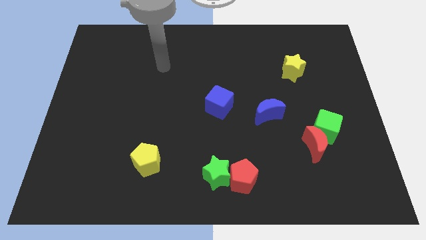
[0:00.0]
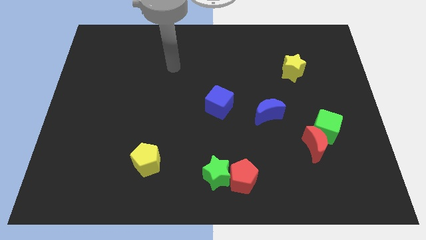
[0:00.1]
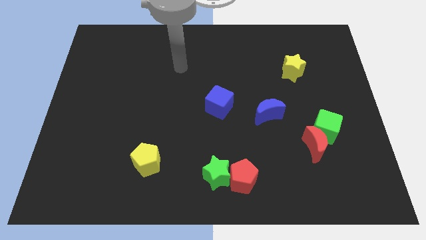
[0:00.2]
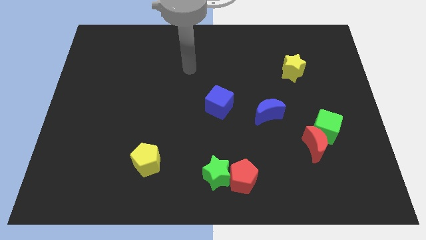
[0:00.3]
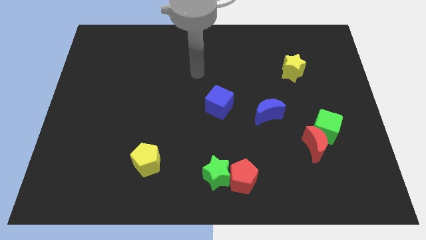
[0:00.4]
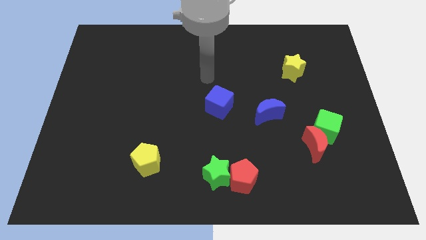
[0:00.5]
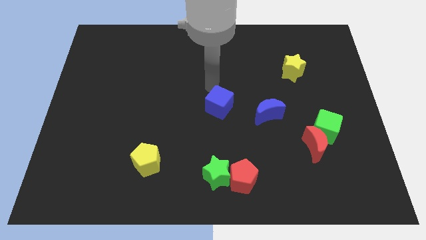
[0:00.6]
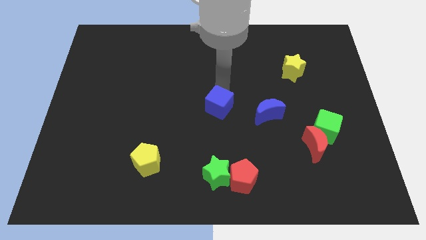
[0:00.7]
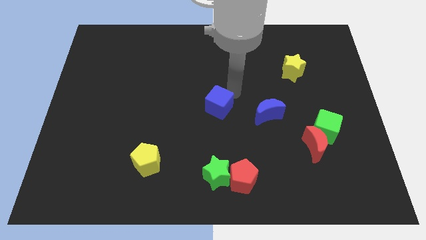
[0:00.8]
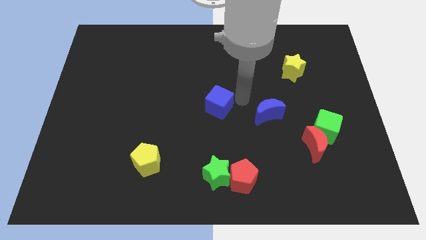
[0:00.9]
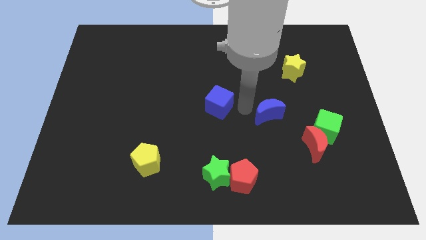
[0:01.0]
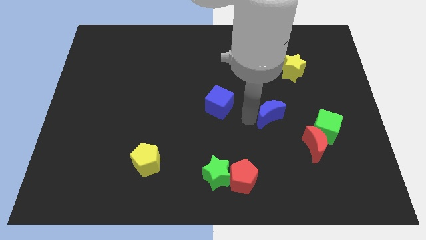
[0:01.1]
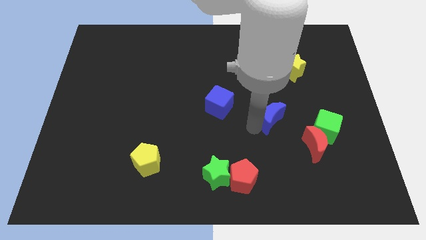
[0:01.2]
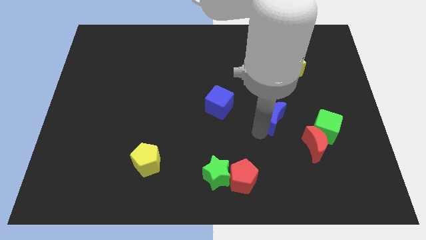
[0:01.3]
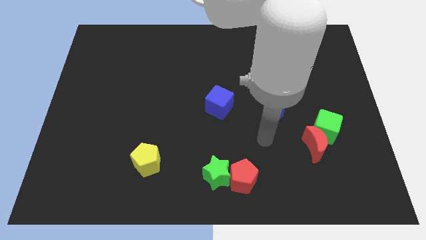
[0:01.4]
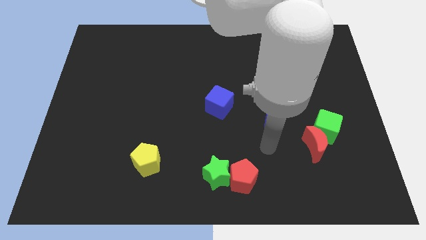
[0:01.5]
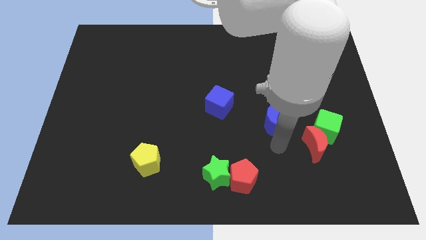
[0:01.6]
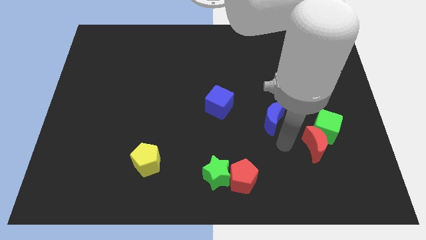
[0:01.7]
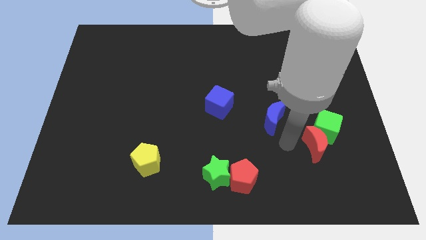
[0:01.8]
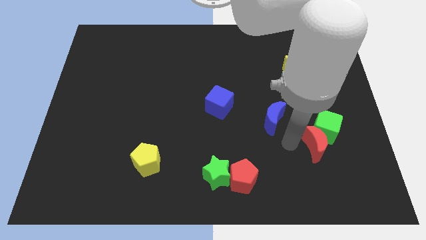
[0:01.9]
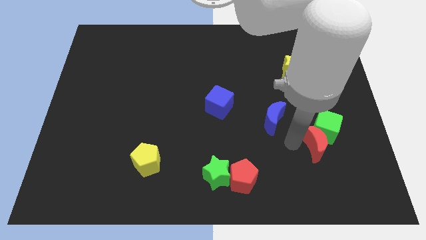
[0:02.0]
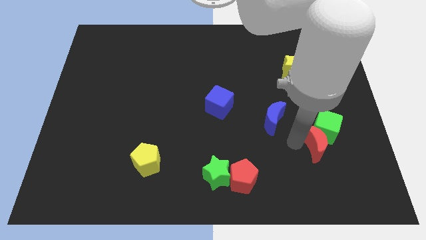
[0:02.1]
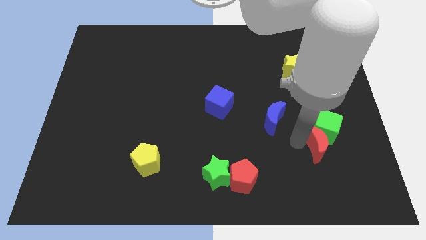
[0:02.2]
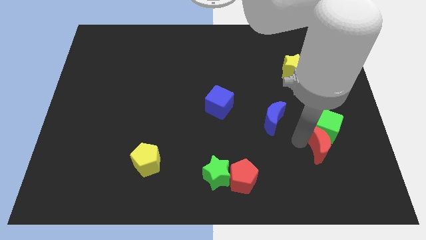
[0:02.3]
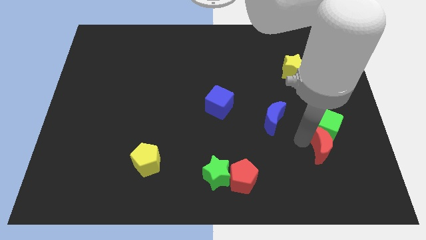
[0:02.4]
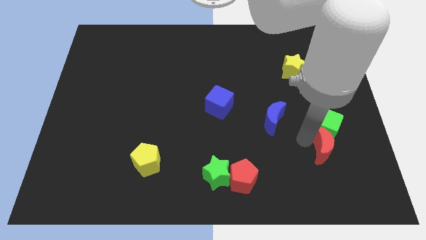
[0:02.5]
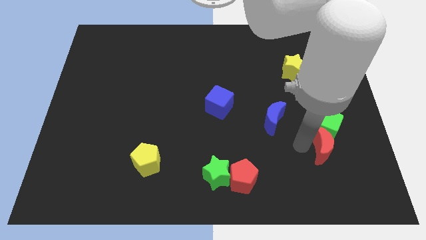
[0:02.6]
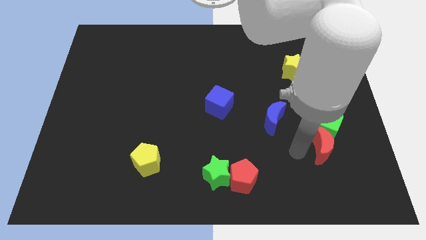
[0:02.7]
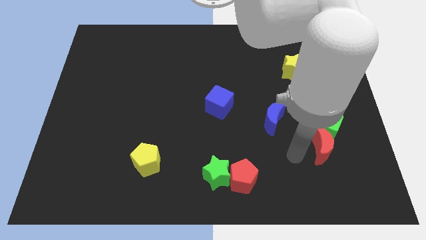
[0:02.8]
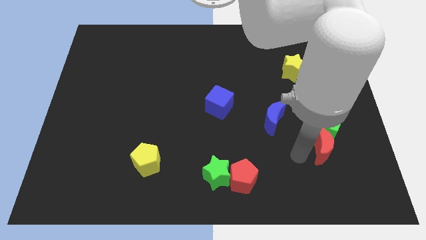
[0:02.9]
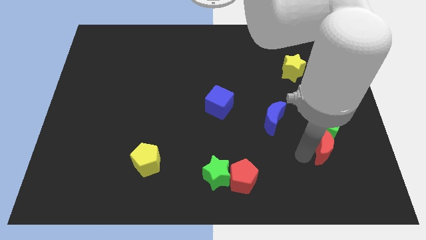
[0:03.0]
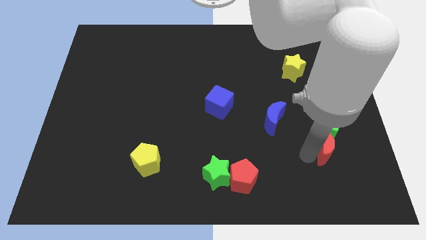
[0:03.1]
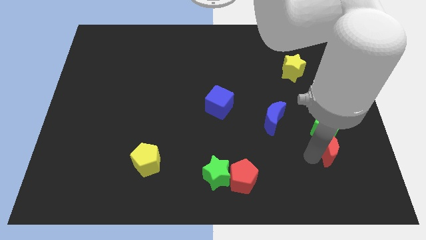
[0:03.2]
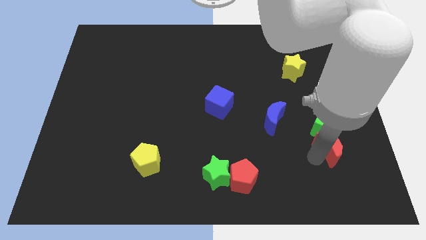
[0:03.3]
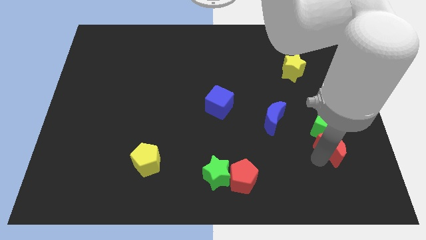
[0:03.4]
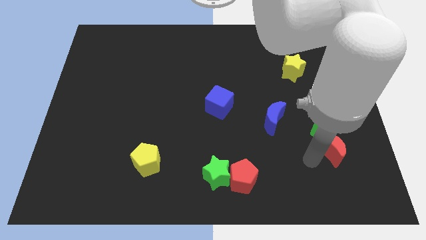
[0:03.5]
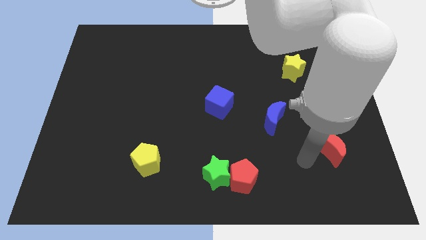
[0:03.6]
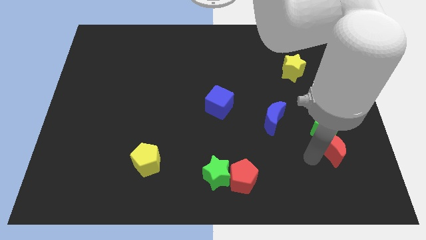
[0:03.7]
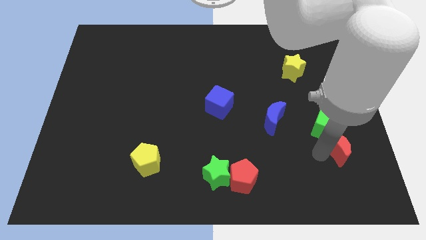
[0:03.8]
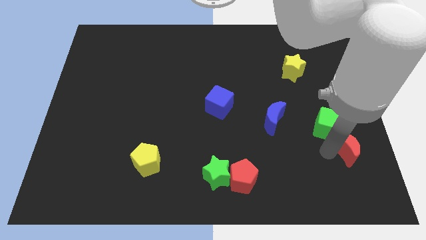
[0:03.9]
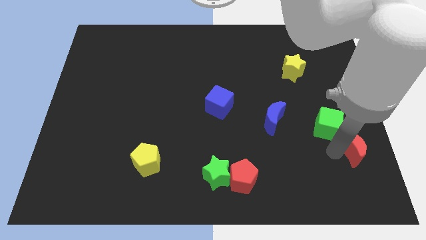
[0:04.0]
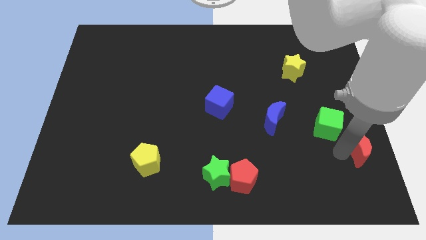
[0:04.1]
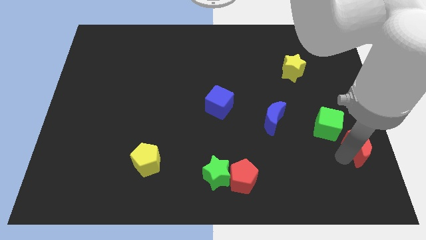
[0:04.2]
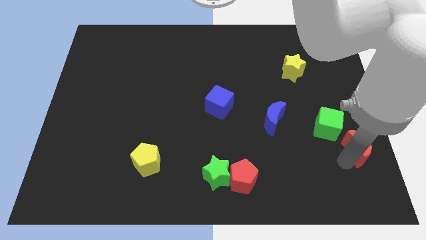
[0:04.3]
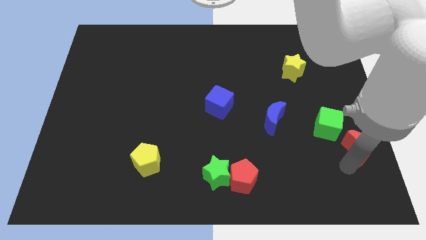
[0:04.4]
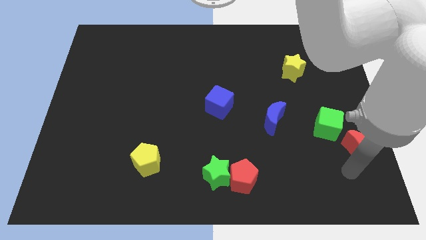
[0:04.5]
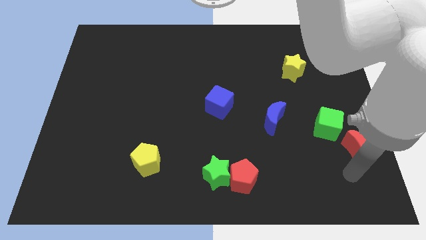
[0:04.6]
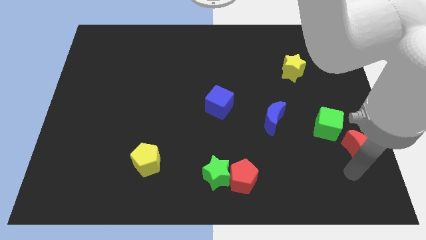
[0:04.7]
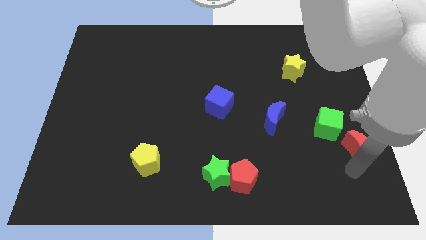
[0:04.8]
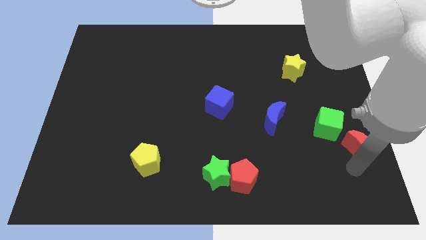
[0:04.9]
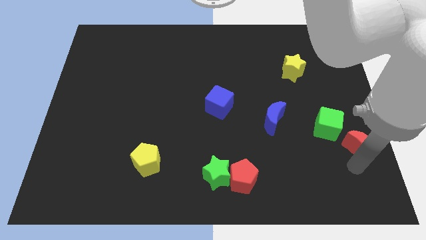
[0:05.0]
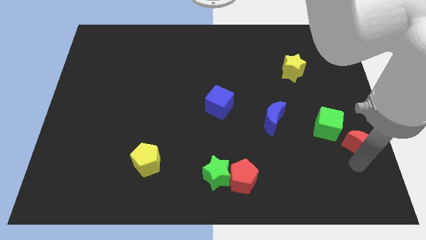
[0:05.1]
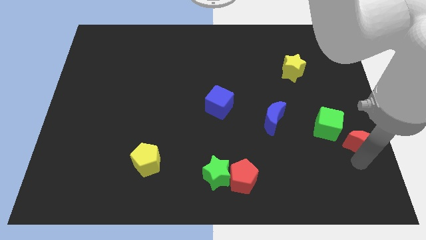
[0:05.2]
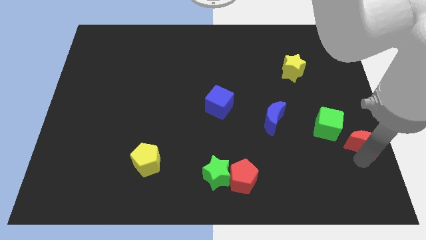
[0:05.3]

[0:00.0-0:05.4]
move the red moon to the right side
